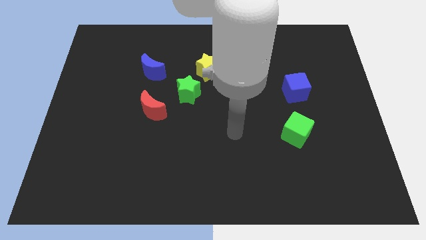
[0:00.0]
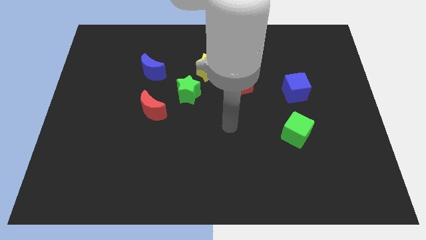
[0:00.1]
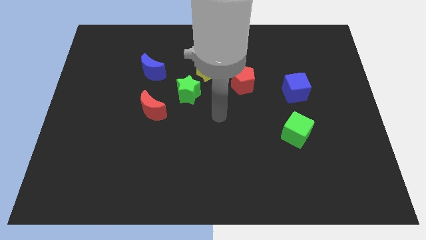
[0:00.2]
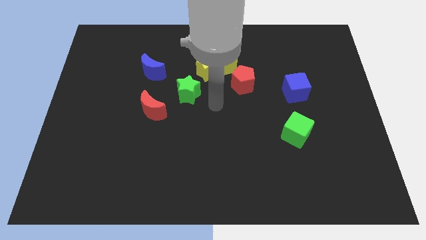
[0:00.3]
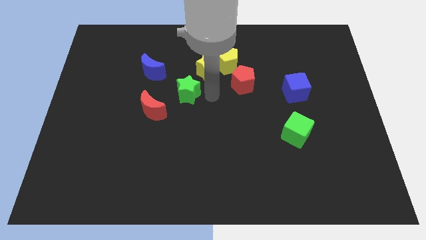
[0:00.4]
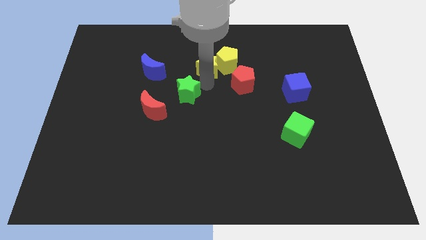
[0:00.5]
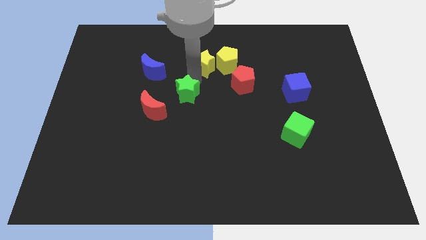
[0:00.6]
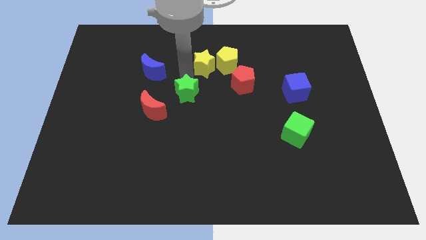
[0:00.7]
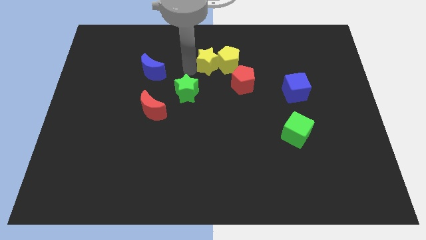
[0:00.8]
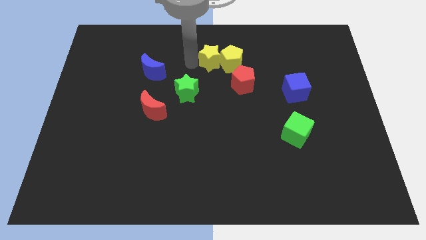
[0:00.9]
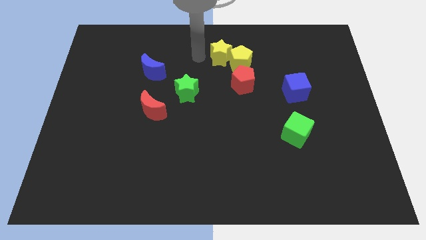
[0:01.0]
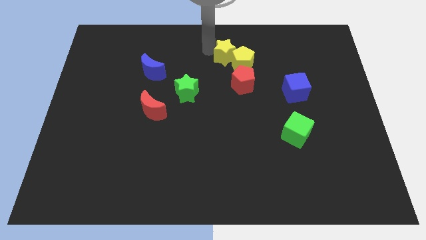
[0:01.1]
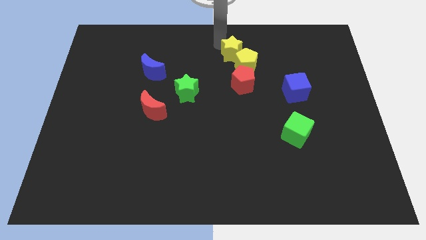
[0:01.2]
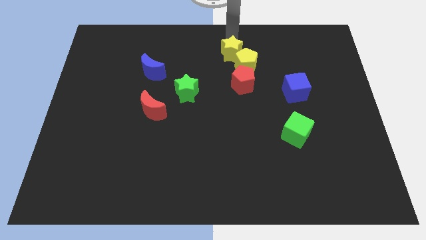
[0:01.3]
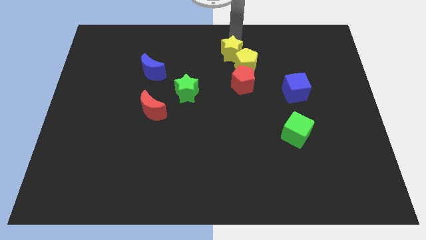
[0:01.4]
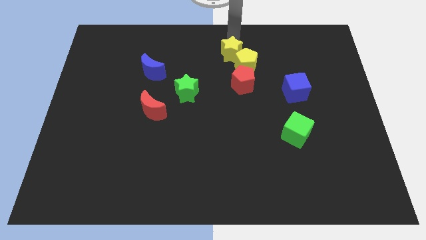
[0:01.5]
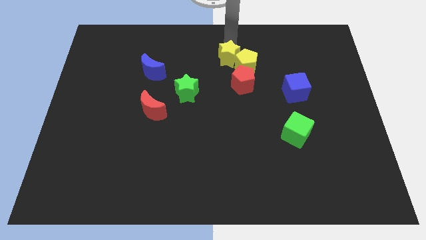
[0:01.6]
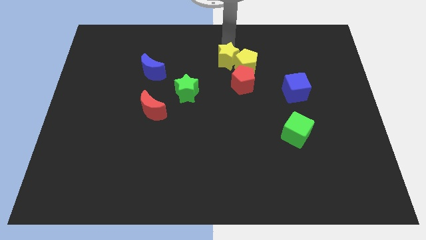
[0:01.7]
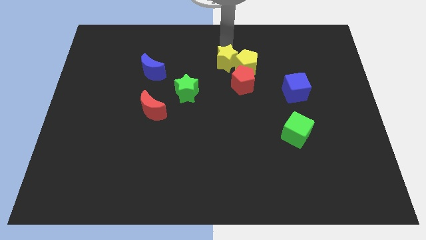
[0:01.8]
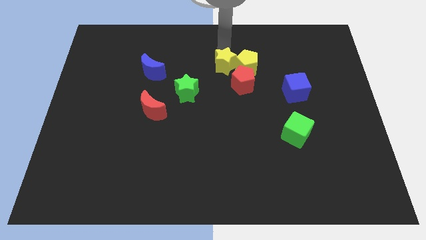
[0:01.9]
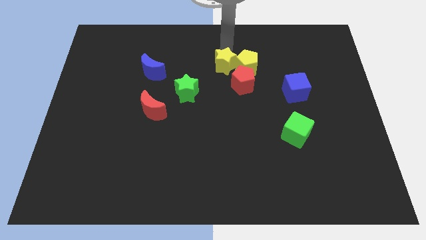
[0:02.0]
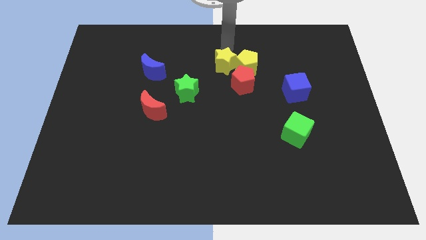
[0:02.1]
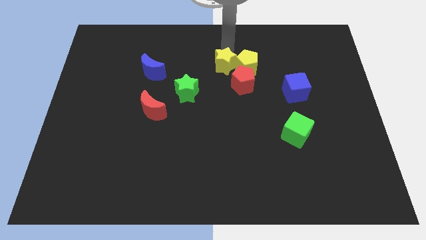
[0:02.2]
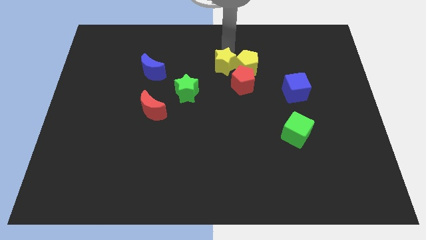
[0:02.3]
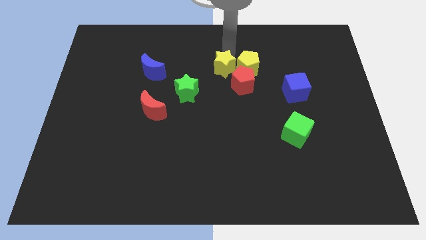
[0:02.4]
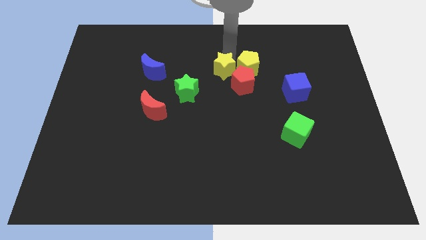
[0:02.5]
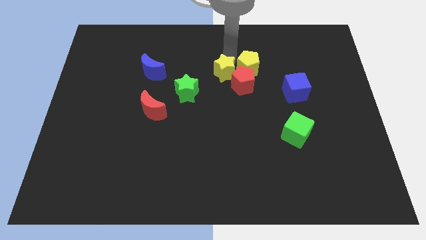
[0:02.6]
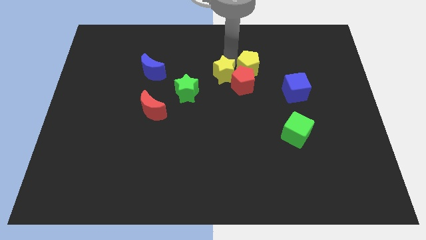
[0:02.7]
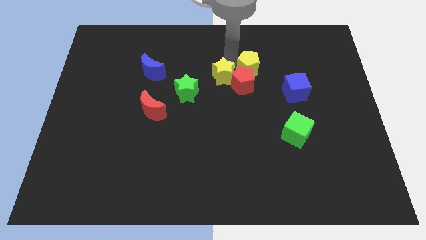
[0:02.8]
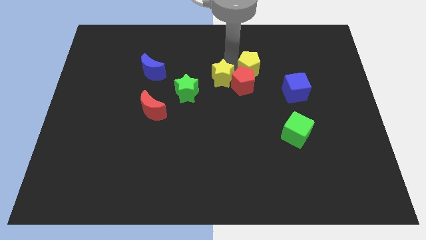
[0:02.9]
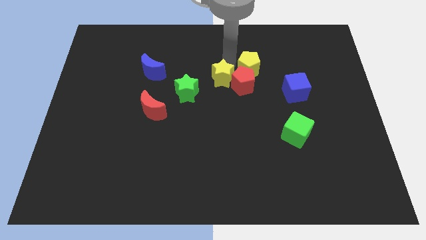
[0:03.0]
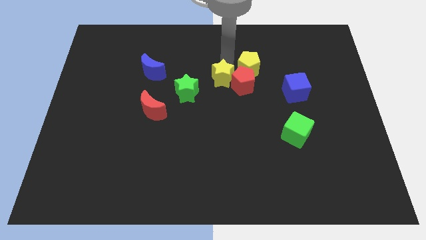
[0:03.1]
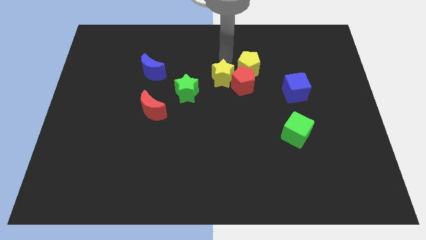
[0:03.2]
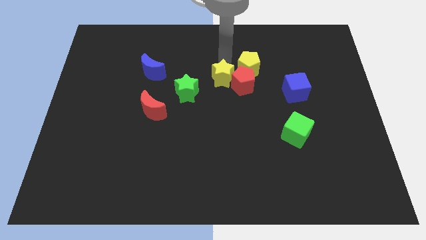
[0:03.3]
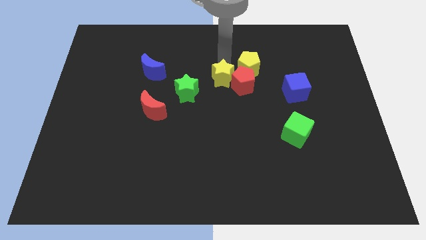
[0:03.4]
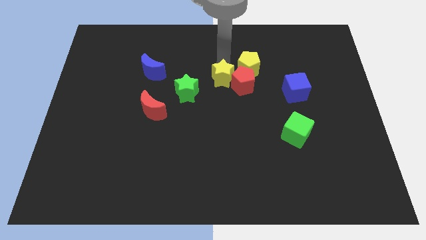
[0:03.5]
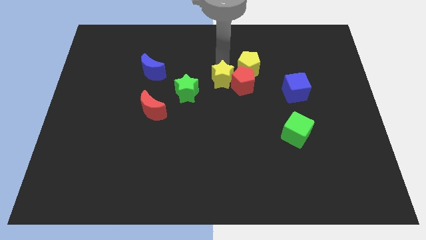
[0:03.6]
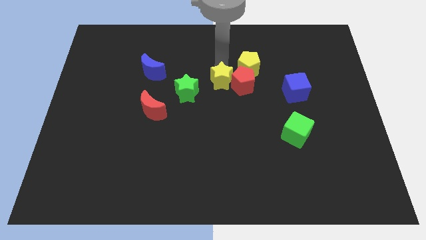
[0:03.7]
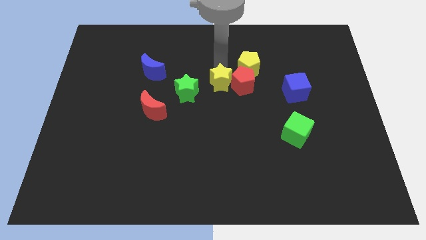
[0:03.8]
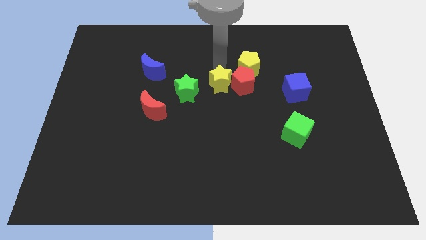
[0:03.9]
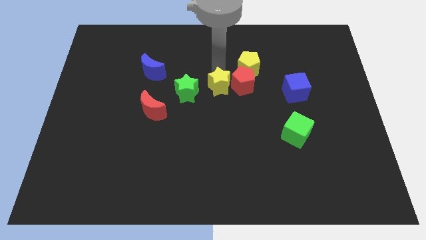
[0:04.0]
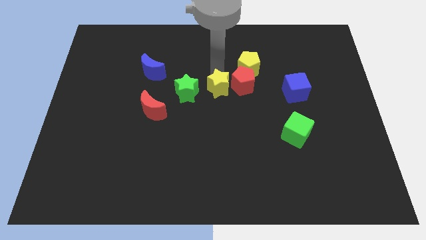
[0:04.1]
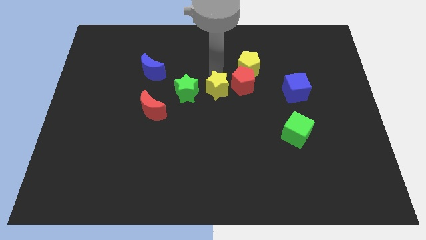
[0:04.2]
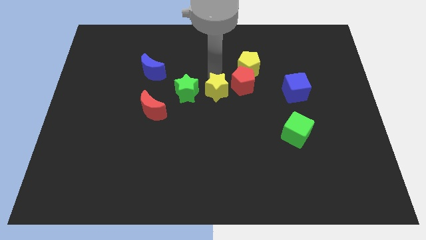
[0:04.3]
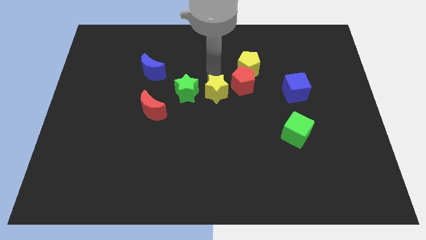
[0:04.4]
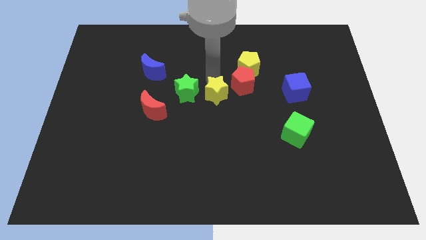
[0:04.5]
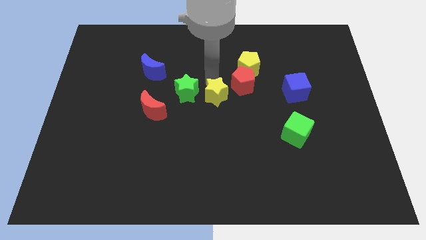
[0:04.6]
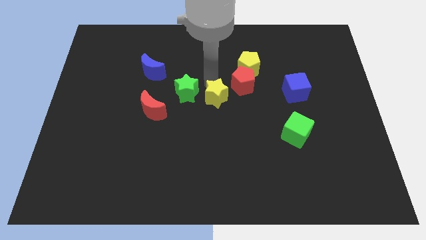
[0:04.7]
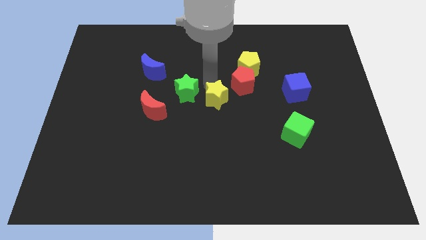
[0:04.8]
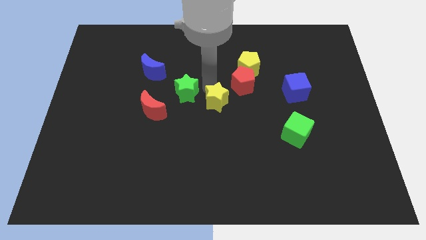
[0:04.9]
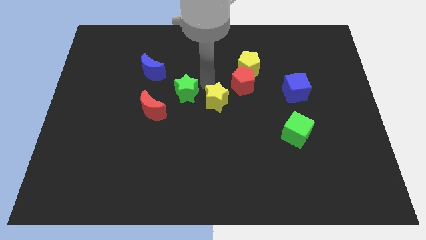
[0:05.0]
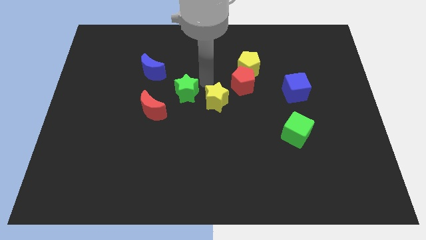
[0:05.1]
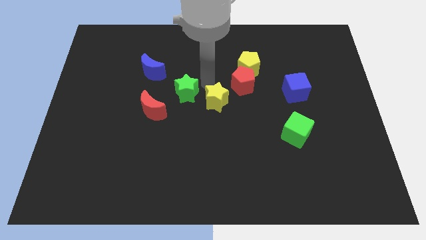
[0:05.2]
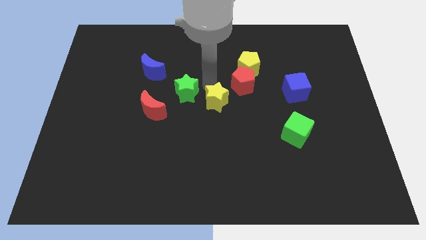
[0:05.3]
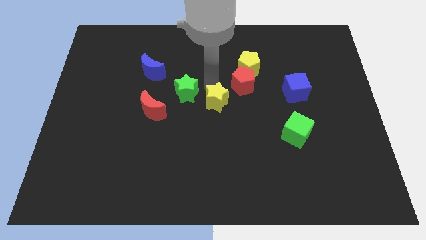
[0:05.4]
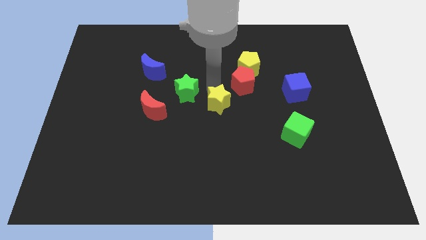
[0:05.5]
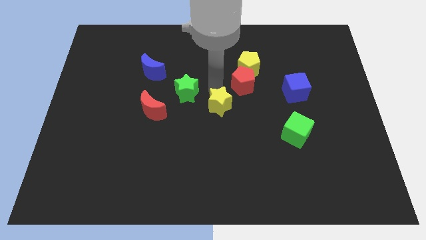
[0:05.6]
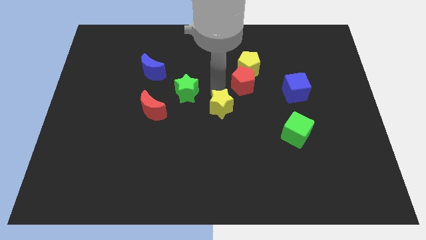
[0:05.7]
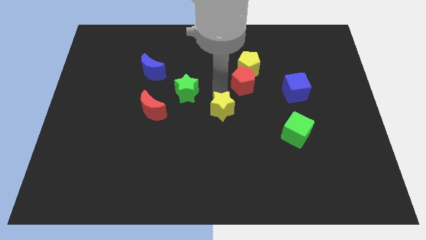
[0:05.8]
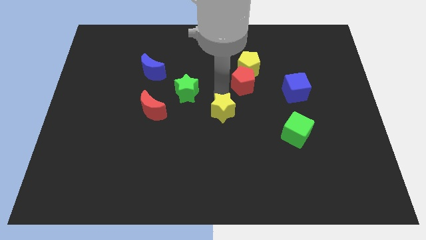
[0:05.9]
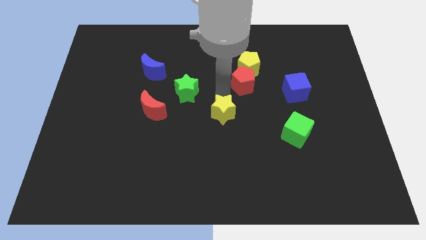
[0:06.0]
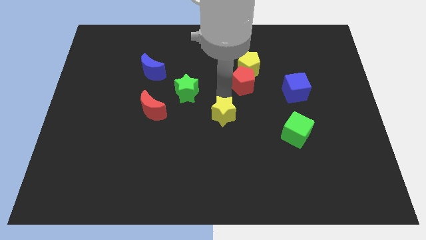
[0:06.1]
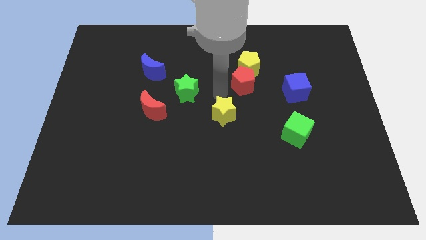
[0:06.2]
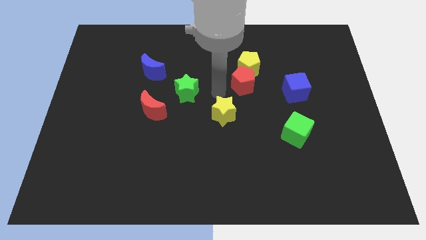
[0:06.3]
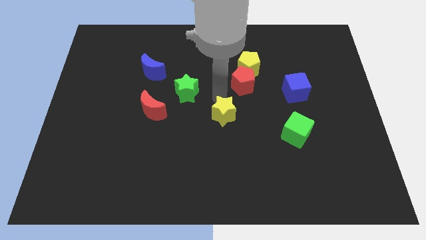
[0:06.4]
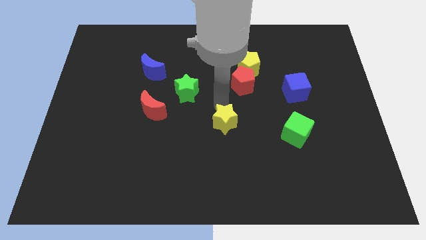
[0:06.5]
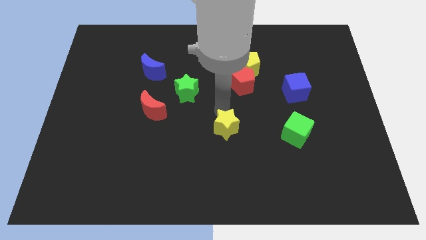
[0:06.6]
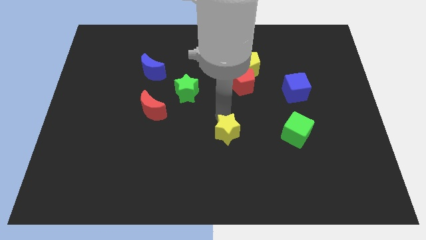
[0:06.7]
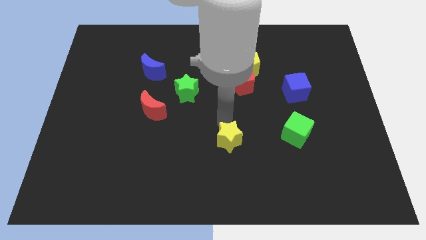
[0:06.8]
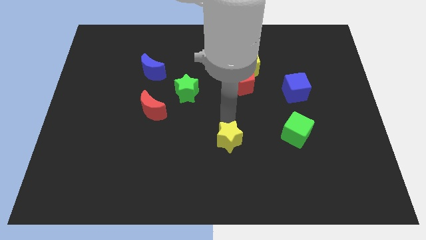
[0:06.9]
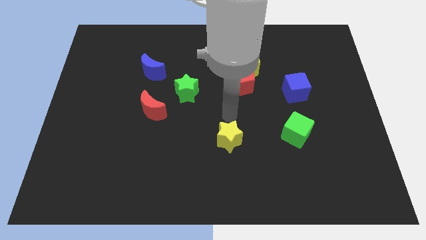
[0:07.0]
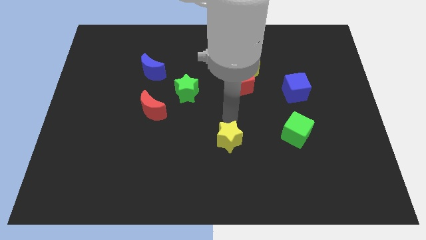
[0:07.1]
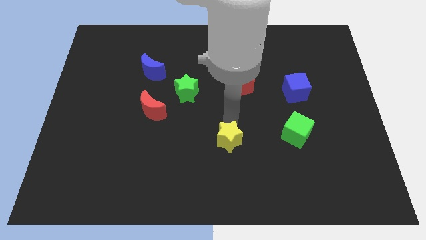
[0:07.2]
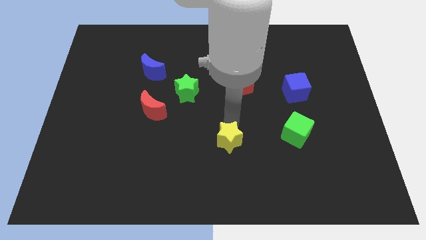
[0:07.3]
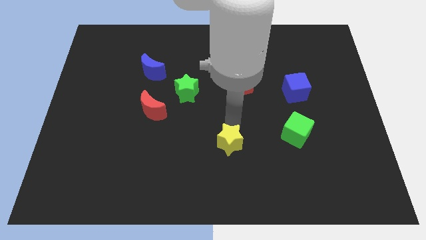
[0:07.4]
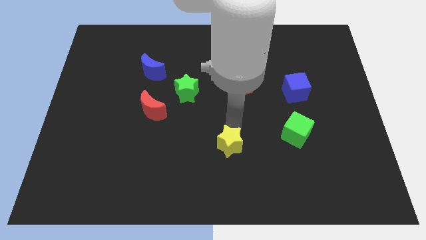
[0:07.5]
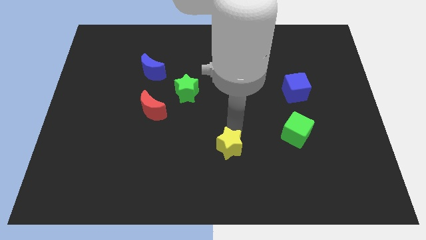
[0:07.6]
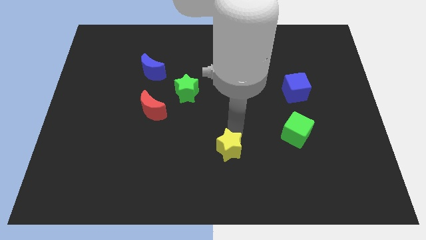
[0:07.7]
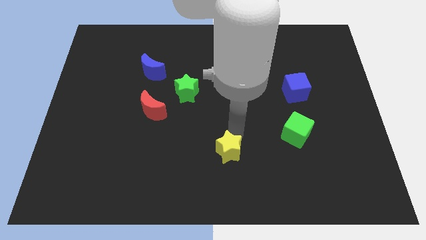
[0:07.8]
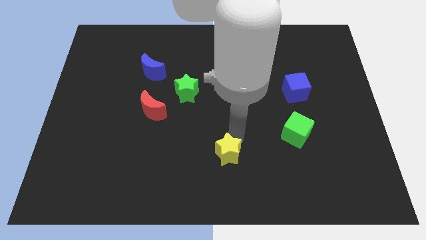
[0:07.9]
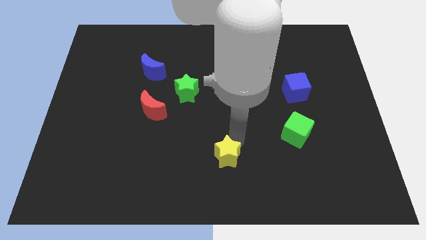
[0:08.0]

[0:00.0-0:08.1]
move the yellow star to the bottom
